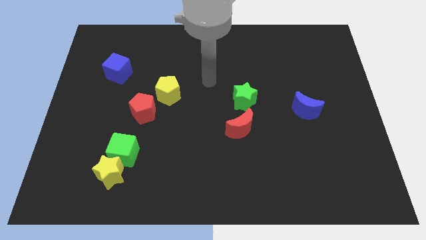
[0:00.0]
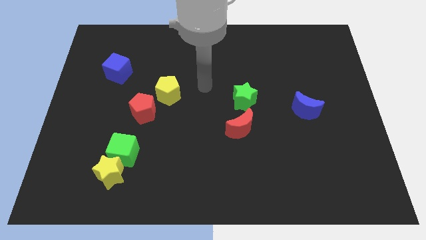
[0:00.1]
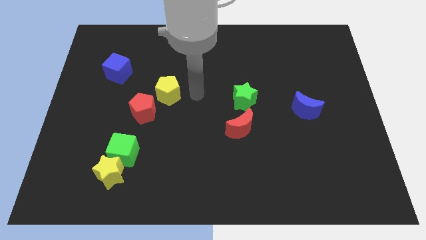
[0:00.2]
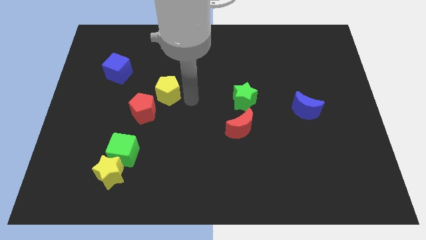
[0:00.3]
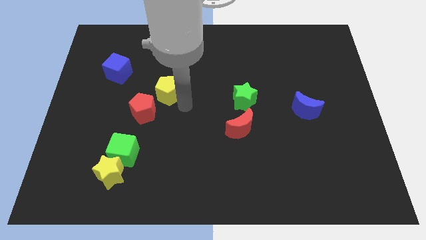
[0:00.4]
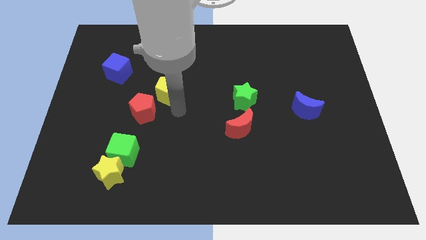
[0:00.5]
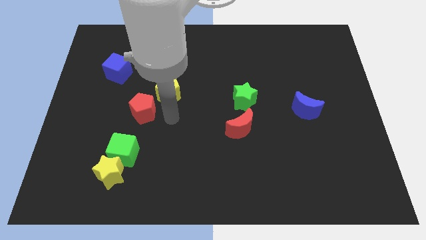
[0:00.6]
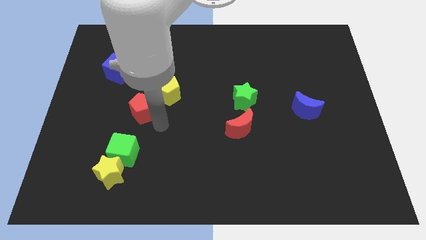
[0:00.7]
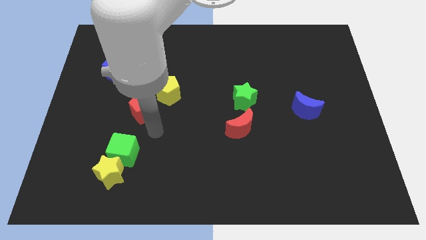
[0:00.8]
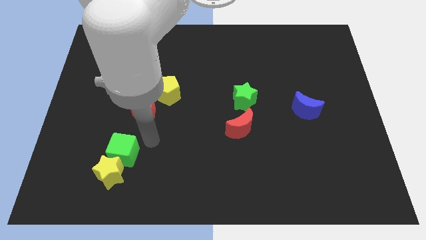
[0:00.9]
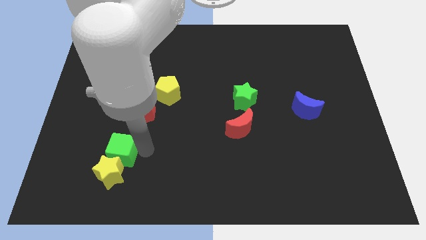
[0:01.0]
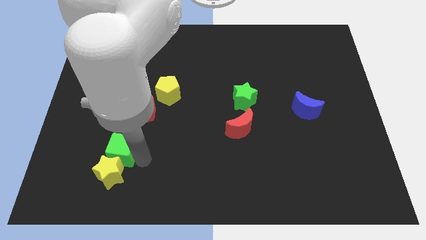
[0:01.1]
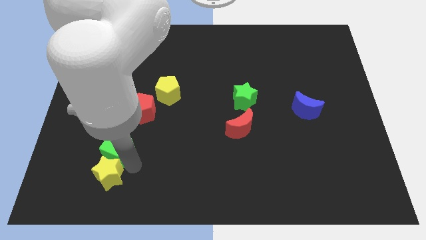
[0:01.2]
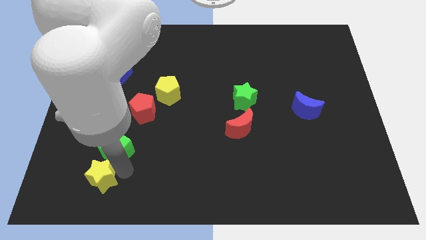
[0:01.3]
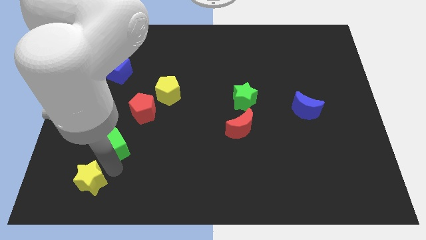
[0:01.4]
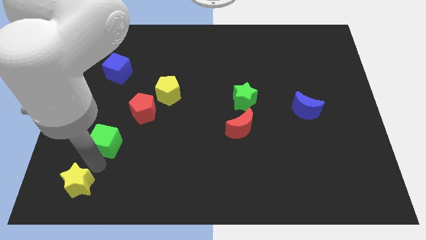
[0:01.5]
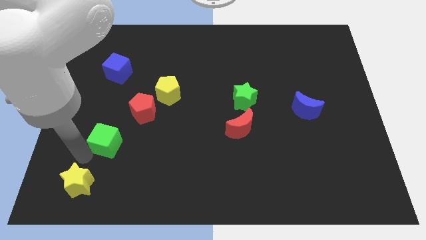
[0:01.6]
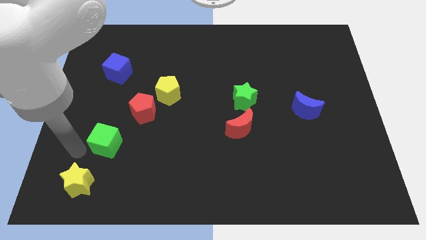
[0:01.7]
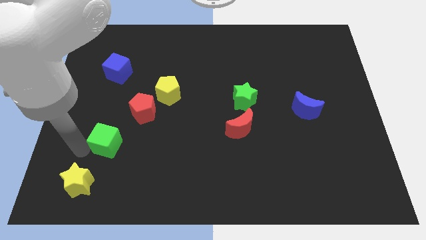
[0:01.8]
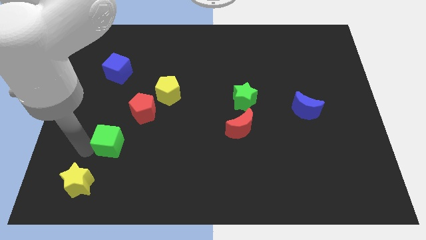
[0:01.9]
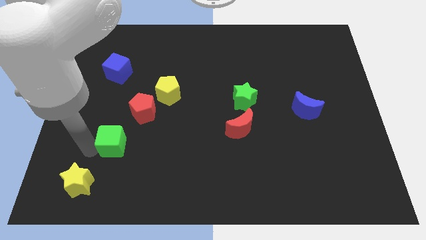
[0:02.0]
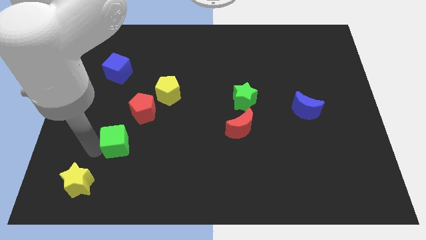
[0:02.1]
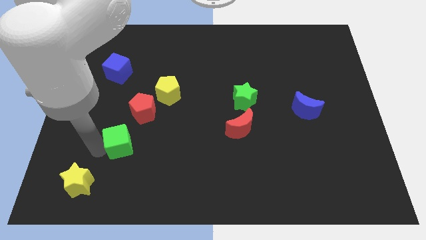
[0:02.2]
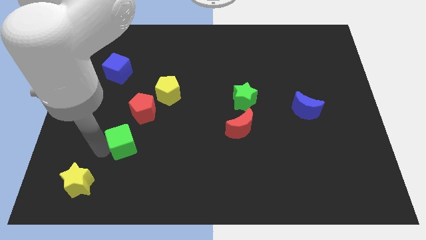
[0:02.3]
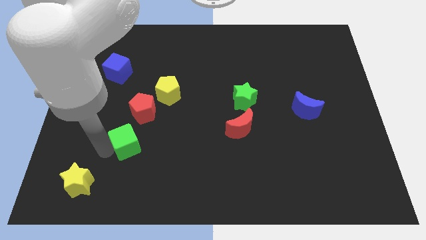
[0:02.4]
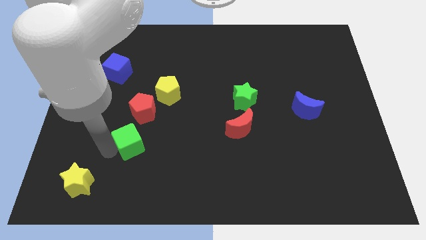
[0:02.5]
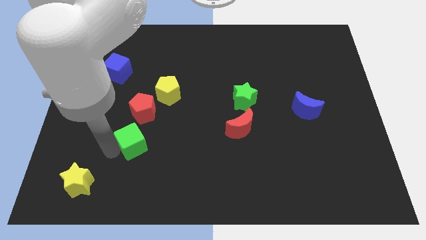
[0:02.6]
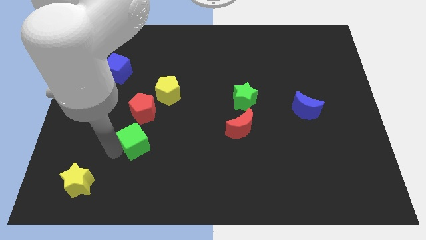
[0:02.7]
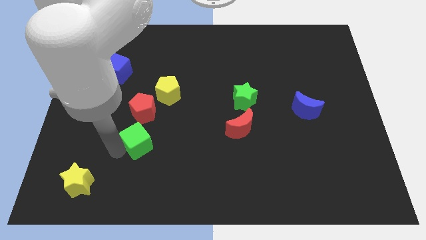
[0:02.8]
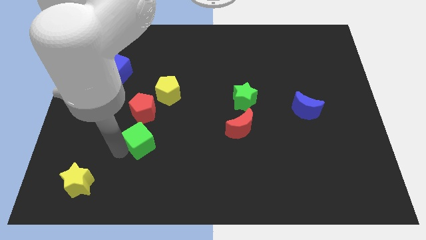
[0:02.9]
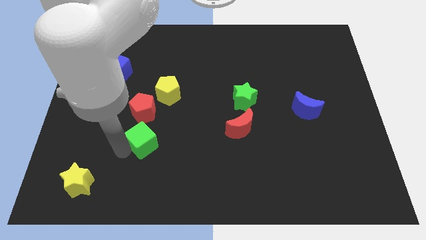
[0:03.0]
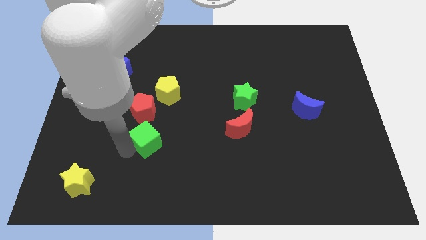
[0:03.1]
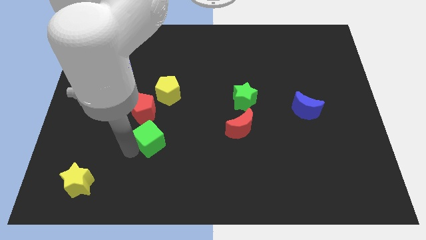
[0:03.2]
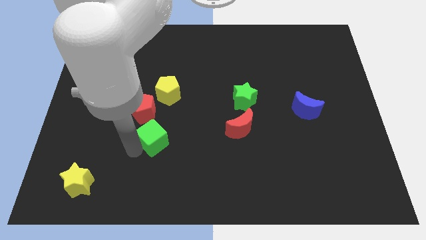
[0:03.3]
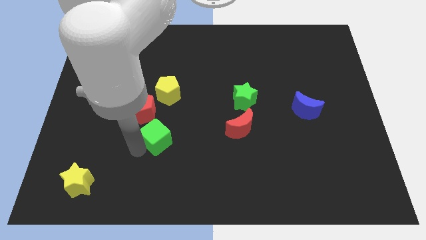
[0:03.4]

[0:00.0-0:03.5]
slide the green cube up and to the right diagonally a bit

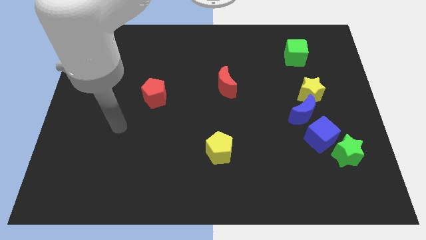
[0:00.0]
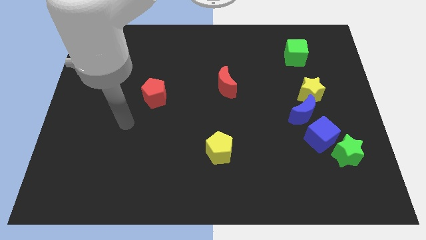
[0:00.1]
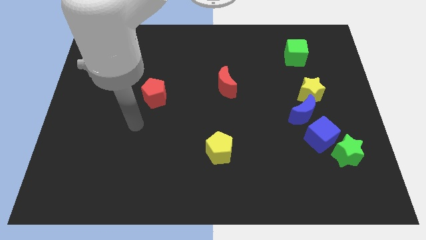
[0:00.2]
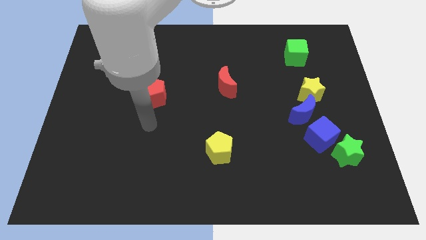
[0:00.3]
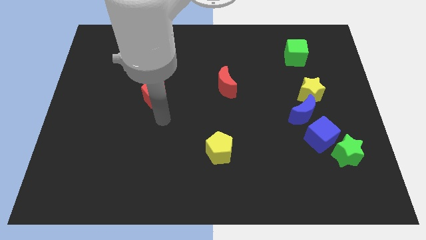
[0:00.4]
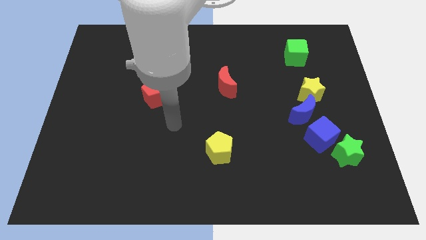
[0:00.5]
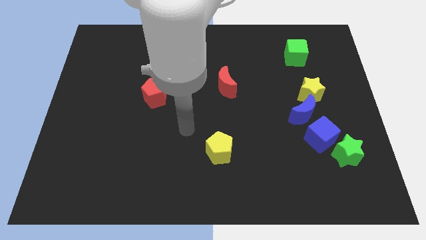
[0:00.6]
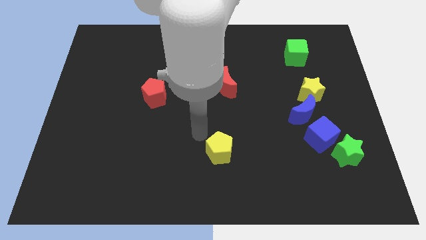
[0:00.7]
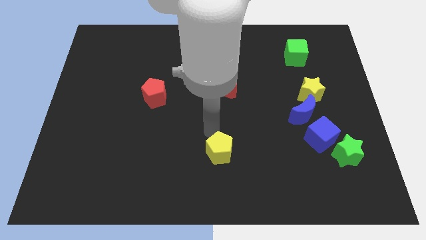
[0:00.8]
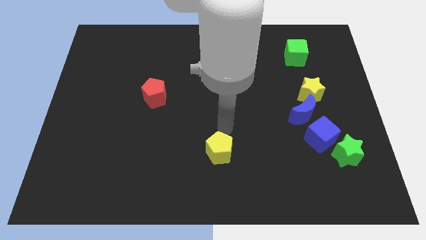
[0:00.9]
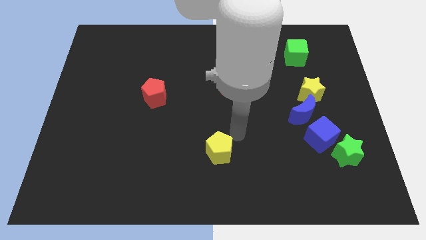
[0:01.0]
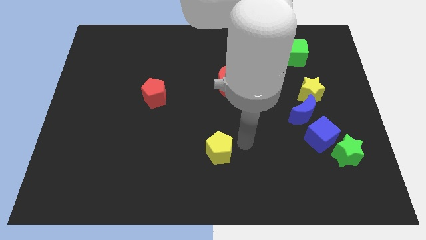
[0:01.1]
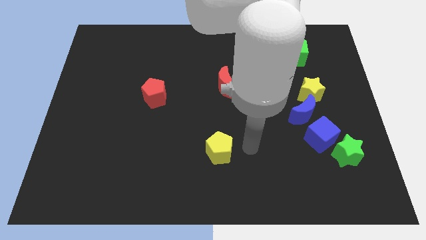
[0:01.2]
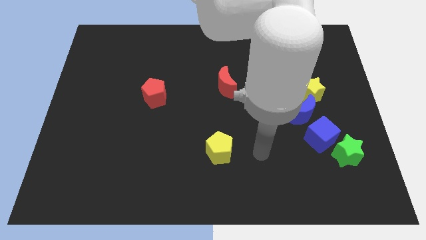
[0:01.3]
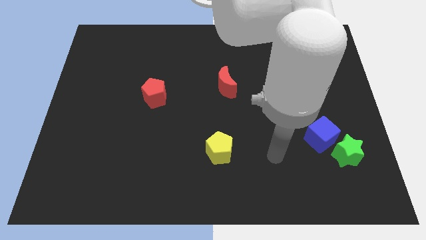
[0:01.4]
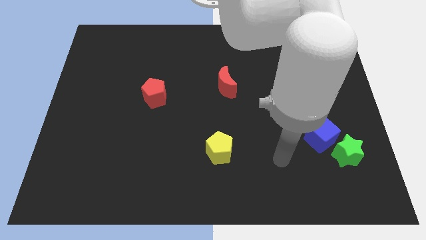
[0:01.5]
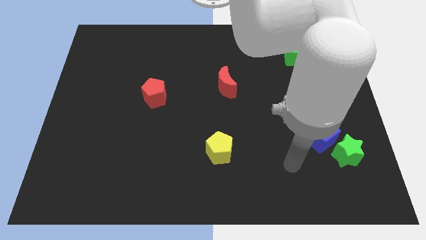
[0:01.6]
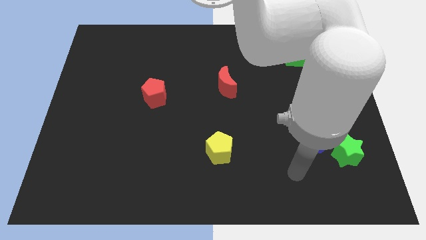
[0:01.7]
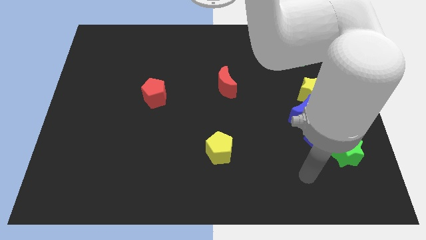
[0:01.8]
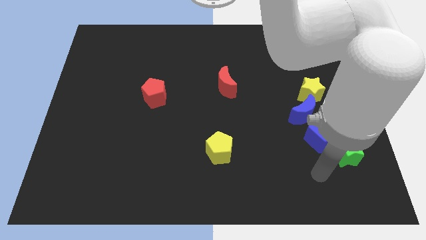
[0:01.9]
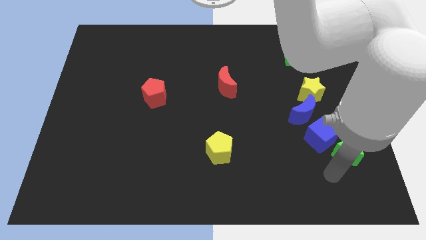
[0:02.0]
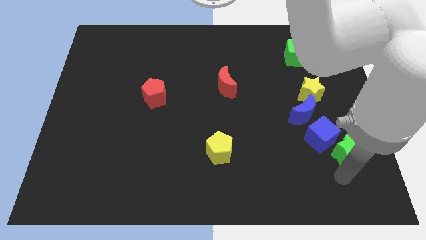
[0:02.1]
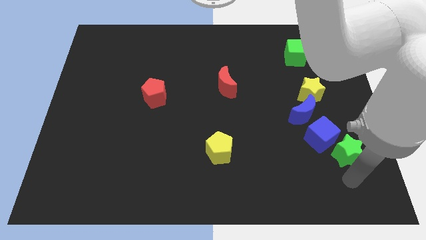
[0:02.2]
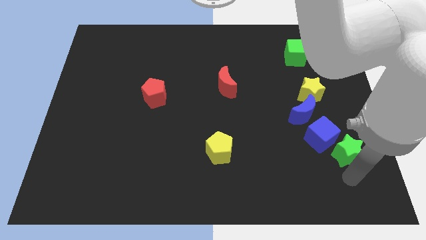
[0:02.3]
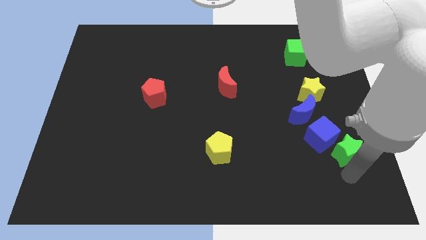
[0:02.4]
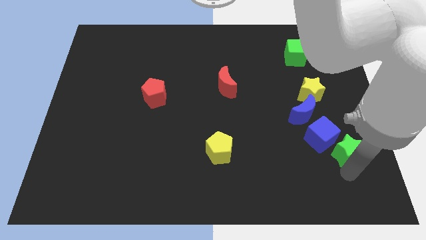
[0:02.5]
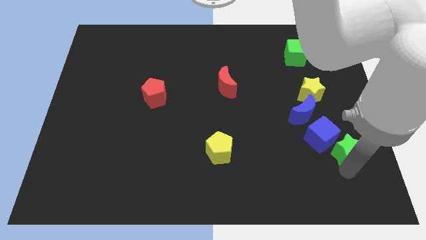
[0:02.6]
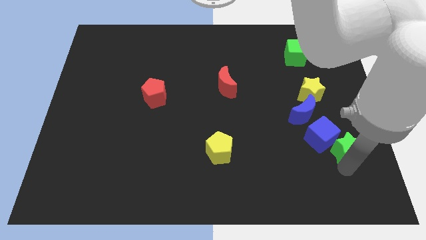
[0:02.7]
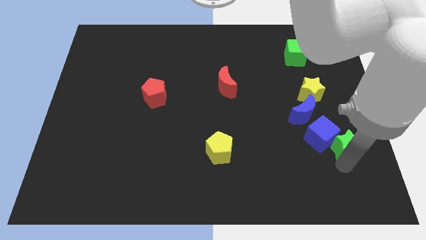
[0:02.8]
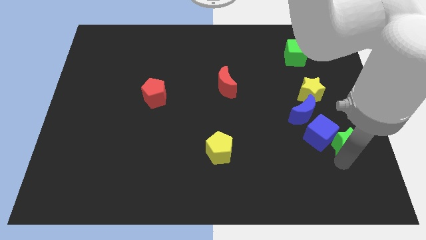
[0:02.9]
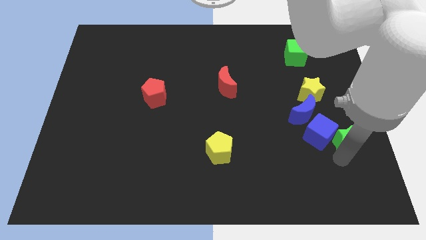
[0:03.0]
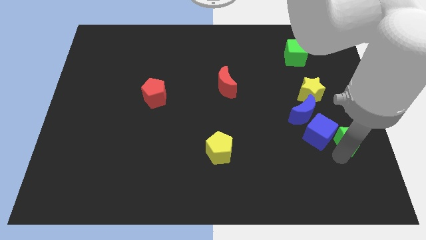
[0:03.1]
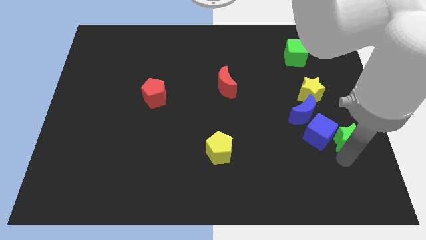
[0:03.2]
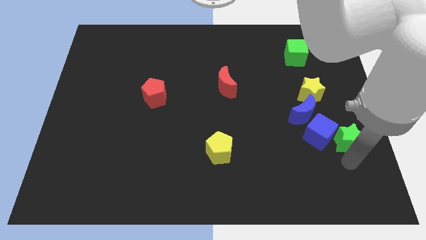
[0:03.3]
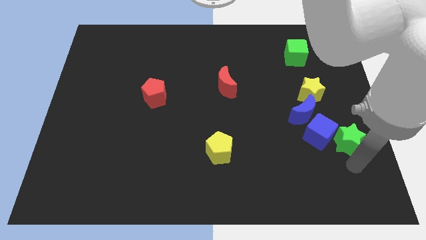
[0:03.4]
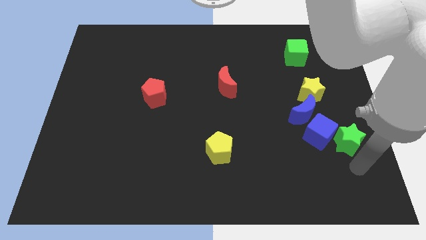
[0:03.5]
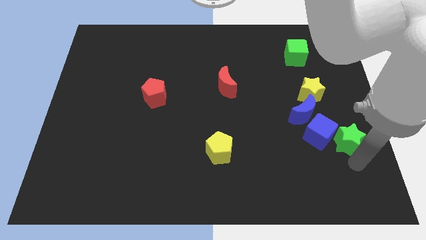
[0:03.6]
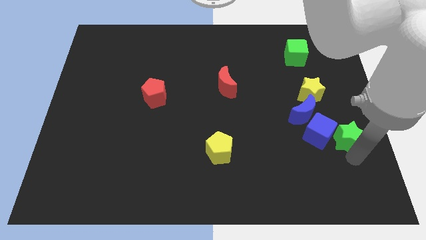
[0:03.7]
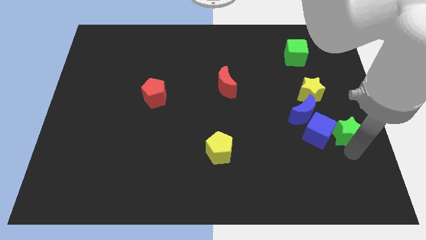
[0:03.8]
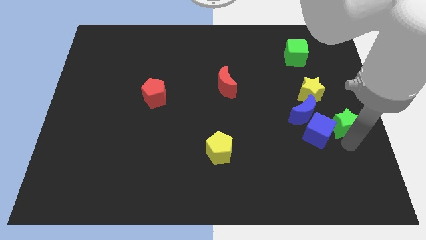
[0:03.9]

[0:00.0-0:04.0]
move the green star upwards somewhat

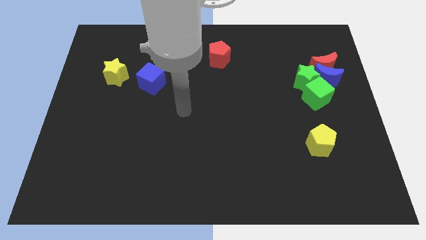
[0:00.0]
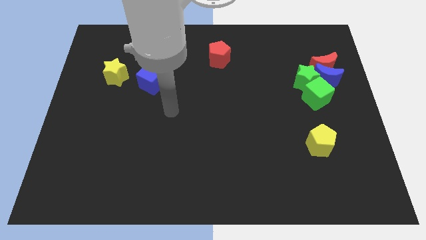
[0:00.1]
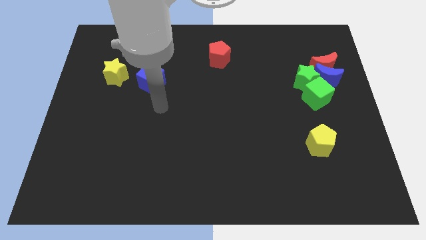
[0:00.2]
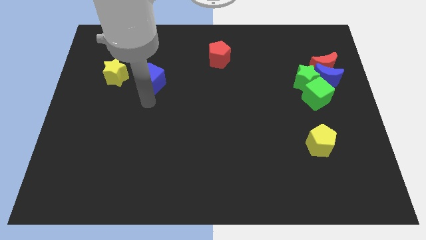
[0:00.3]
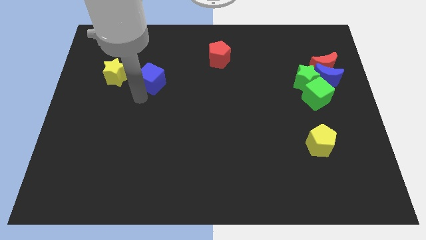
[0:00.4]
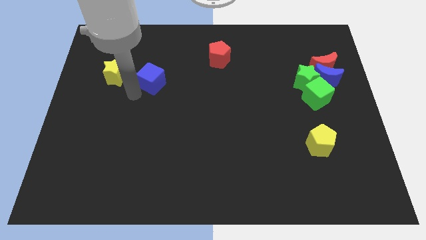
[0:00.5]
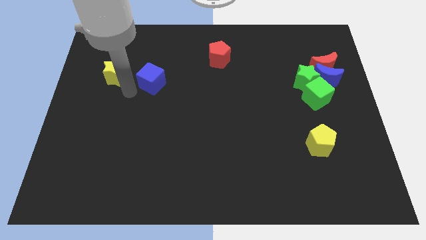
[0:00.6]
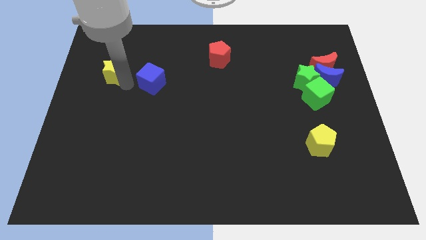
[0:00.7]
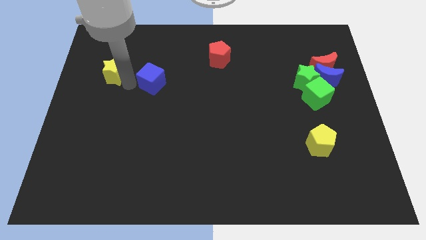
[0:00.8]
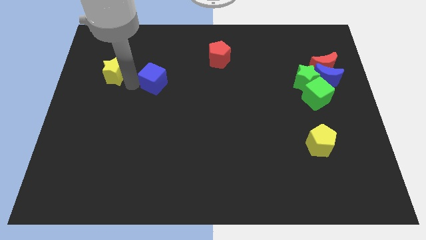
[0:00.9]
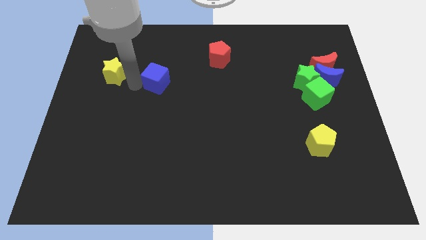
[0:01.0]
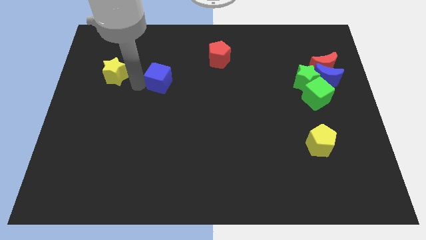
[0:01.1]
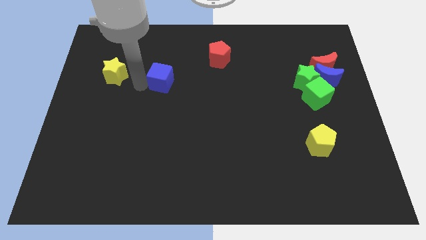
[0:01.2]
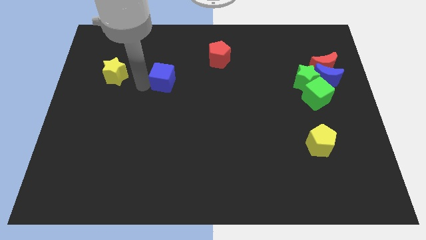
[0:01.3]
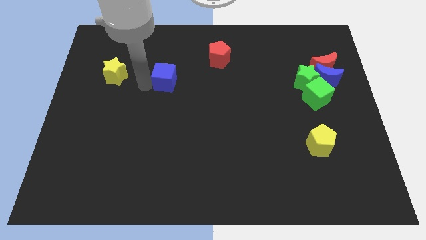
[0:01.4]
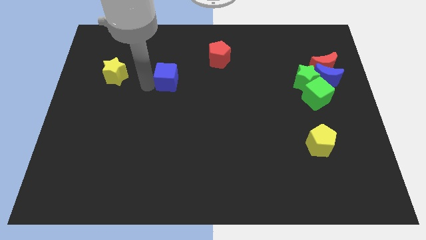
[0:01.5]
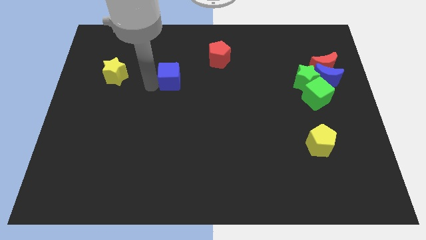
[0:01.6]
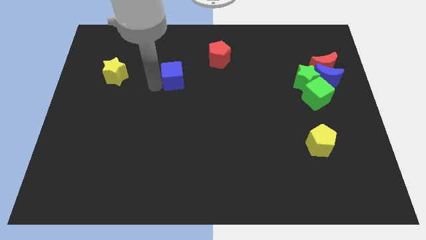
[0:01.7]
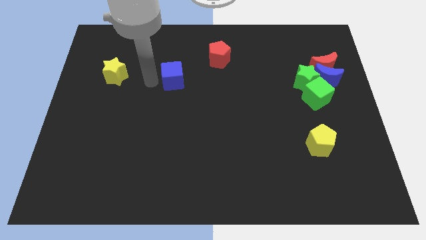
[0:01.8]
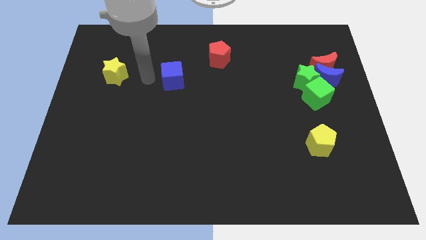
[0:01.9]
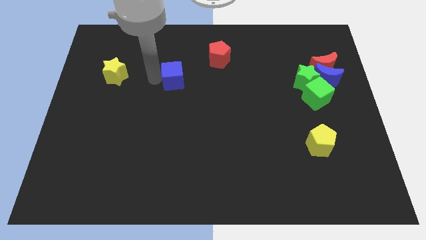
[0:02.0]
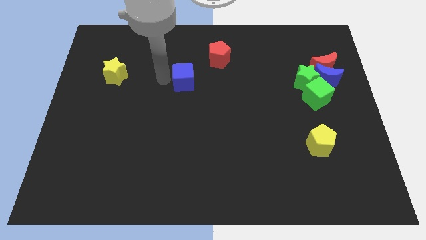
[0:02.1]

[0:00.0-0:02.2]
push the blue cube right a little
